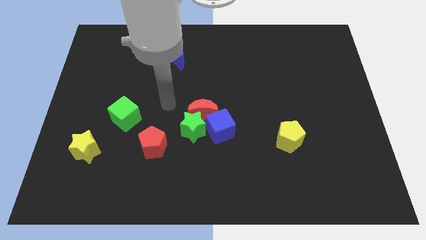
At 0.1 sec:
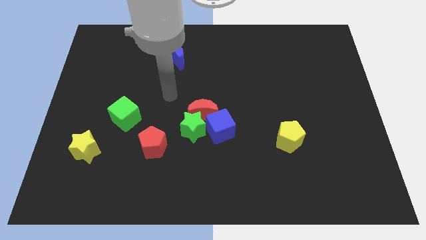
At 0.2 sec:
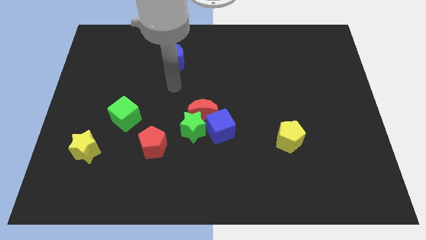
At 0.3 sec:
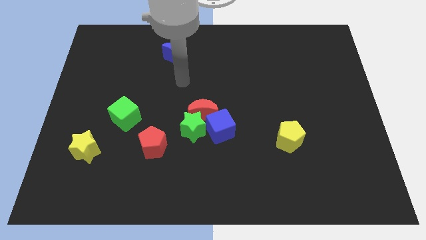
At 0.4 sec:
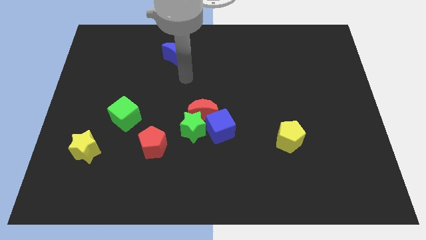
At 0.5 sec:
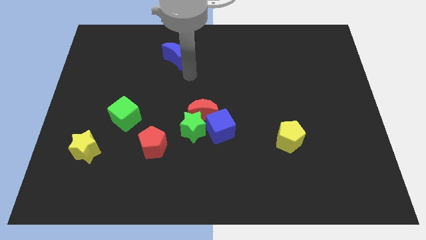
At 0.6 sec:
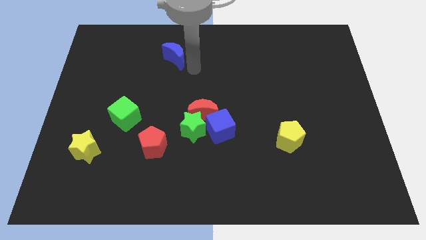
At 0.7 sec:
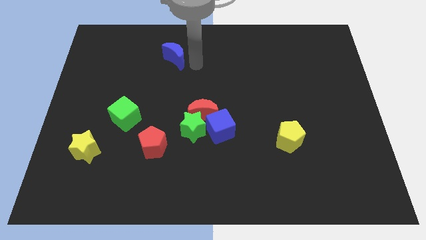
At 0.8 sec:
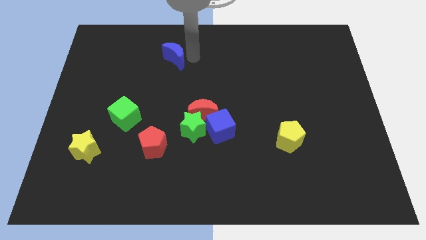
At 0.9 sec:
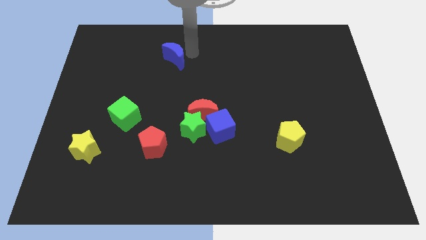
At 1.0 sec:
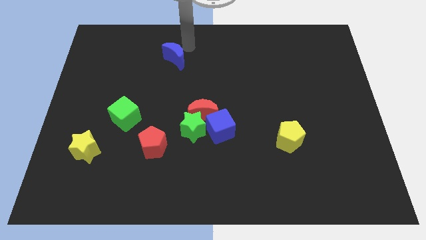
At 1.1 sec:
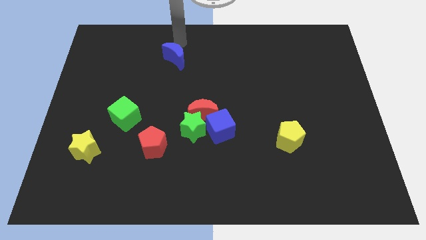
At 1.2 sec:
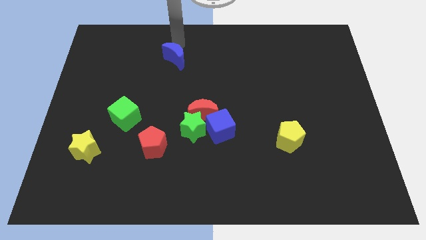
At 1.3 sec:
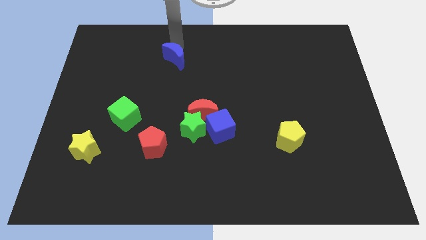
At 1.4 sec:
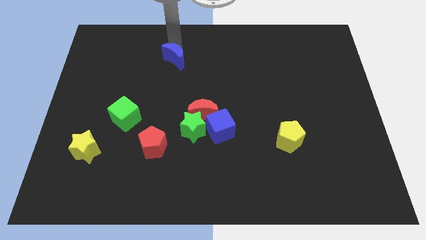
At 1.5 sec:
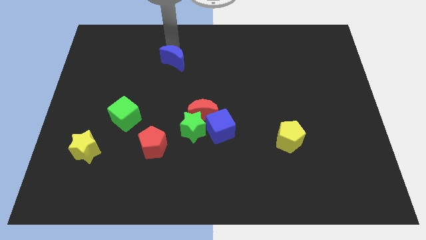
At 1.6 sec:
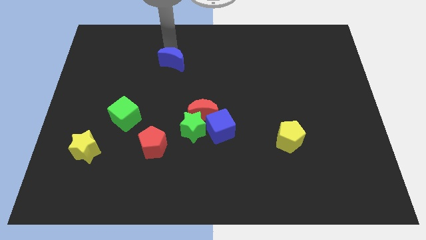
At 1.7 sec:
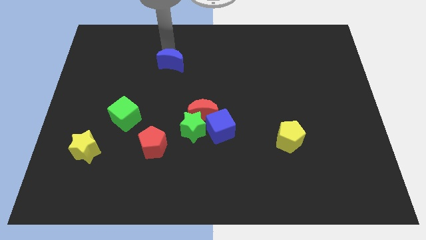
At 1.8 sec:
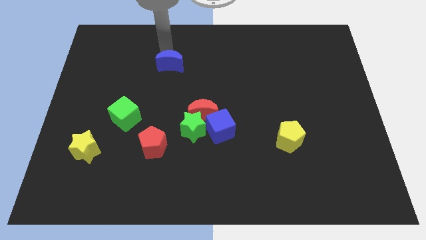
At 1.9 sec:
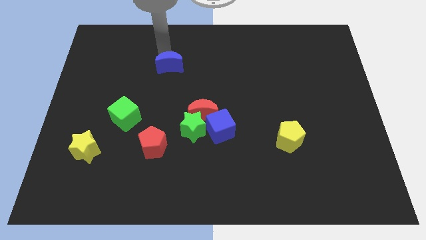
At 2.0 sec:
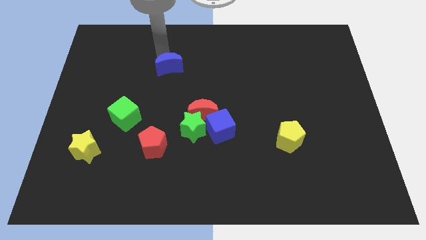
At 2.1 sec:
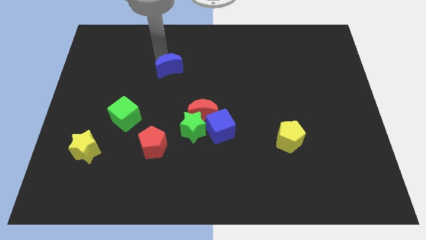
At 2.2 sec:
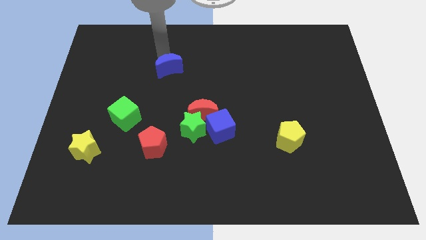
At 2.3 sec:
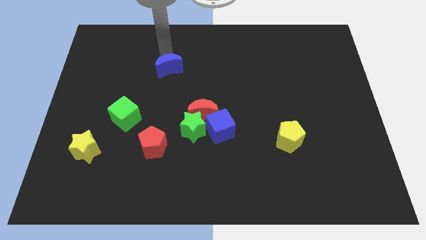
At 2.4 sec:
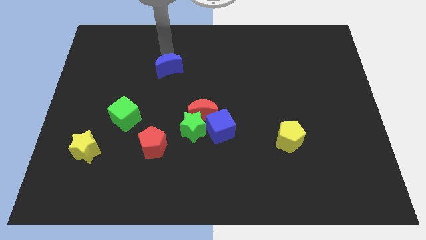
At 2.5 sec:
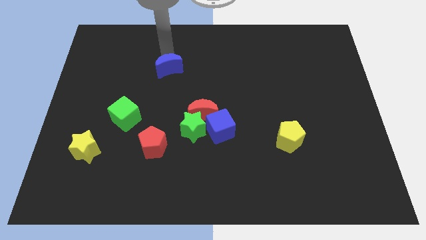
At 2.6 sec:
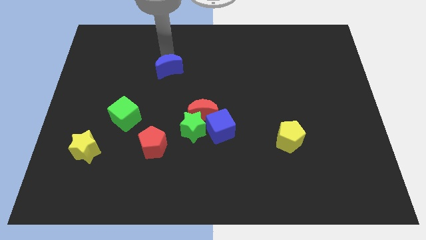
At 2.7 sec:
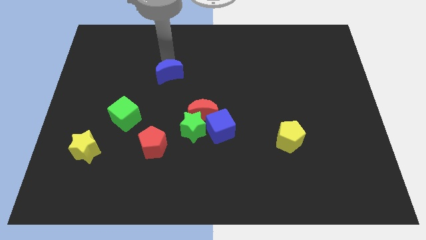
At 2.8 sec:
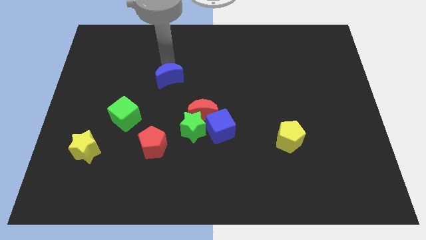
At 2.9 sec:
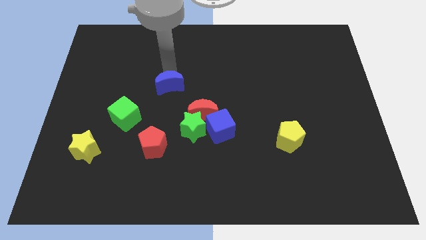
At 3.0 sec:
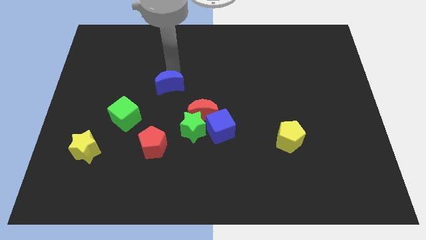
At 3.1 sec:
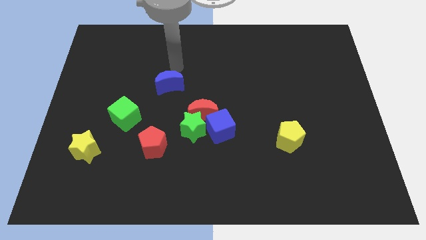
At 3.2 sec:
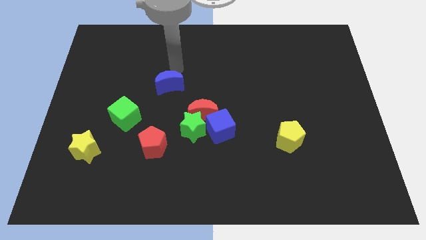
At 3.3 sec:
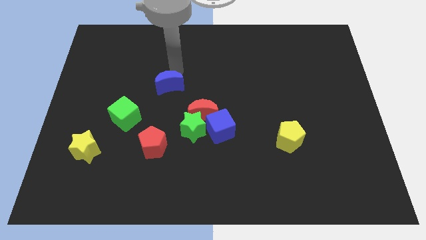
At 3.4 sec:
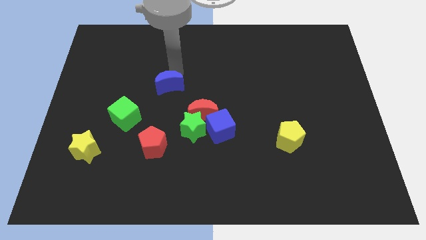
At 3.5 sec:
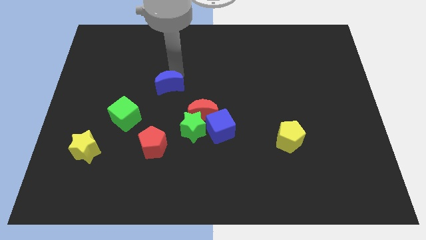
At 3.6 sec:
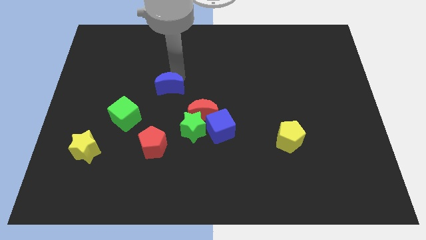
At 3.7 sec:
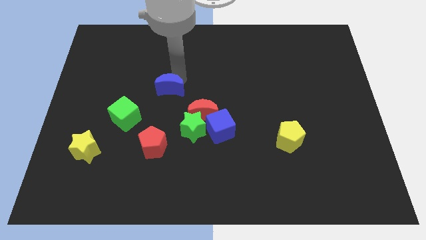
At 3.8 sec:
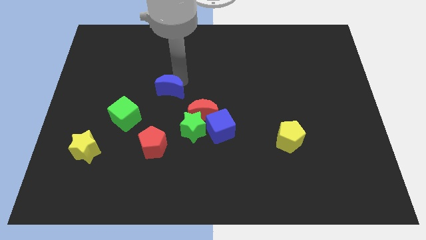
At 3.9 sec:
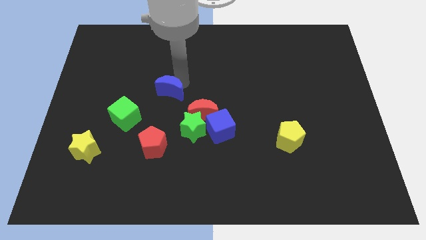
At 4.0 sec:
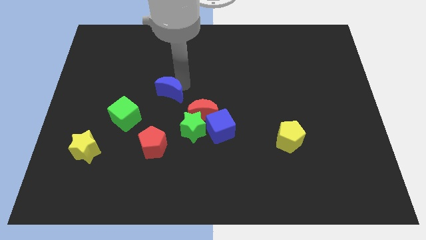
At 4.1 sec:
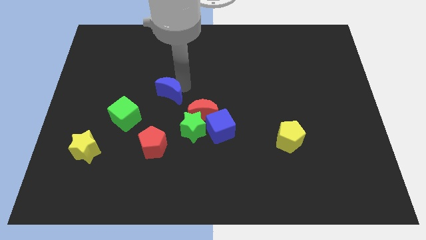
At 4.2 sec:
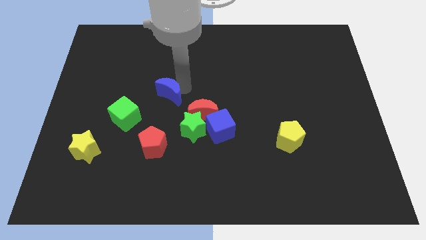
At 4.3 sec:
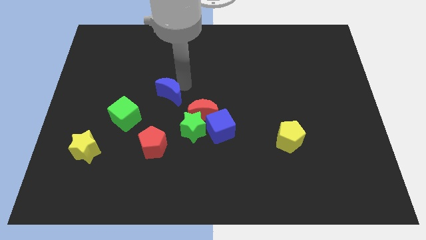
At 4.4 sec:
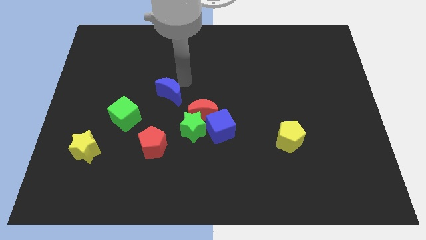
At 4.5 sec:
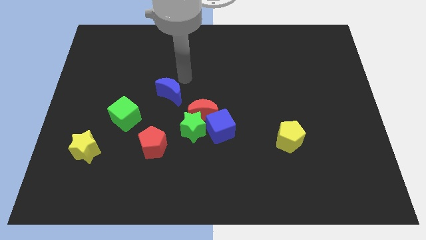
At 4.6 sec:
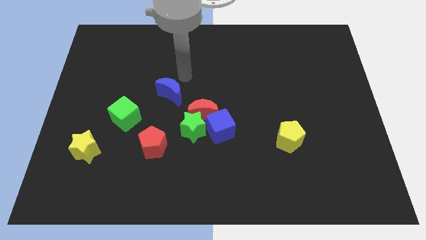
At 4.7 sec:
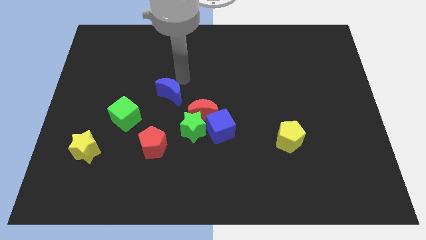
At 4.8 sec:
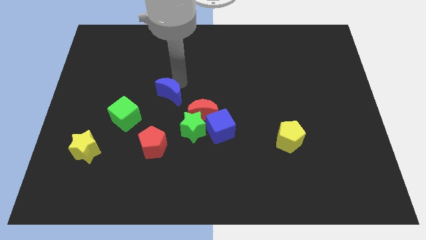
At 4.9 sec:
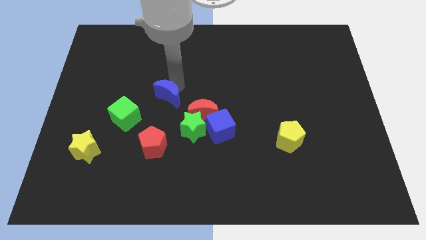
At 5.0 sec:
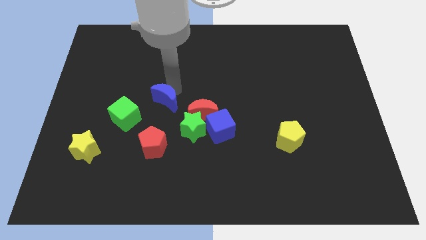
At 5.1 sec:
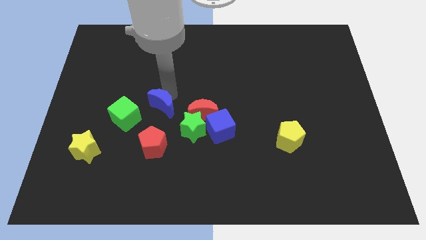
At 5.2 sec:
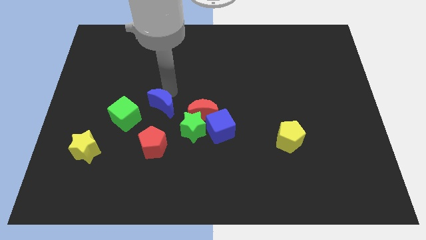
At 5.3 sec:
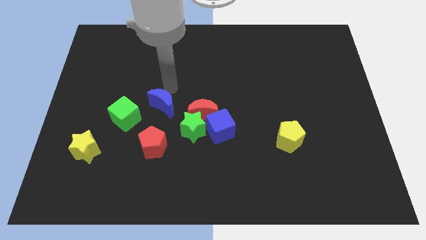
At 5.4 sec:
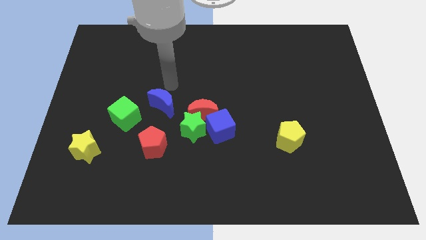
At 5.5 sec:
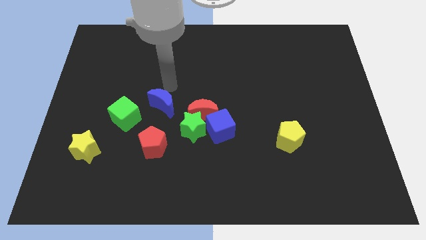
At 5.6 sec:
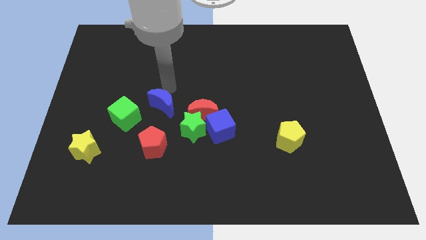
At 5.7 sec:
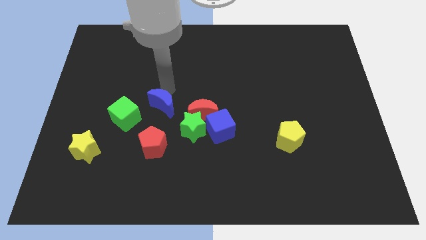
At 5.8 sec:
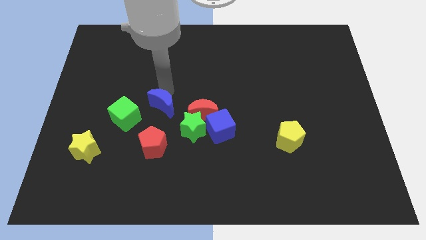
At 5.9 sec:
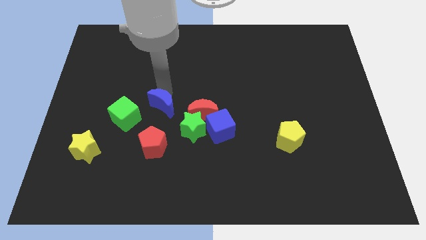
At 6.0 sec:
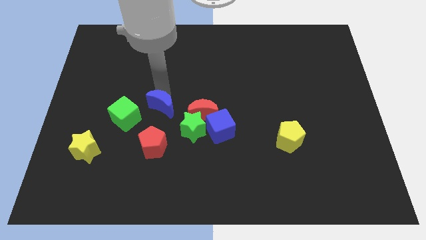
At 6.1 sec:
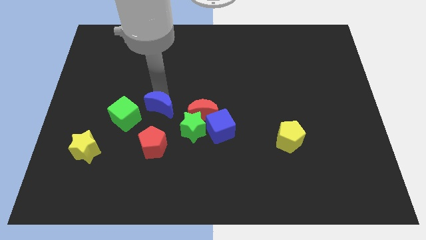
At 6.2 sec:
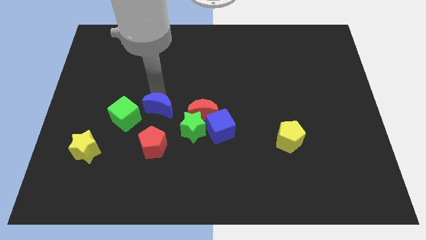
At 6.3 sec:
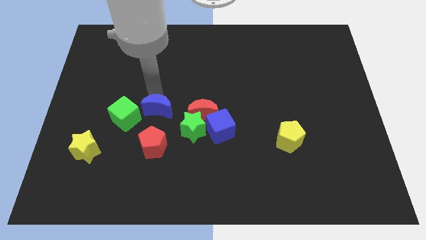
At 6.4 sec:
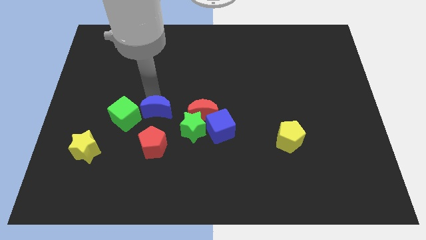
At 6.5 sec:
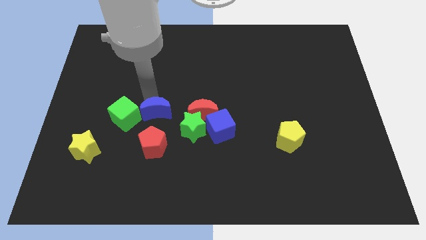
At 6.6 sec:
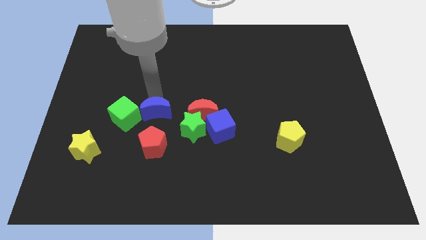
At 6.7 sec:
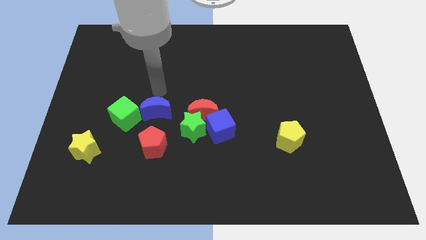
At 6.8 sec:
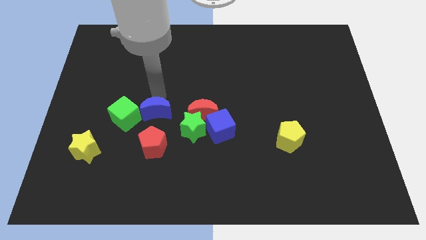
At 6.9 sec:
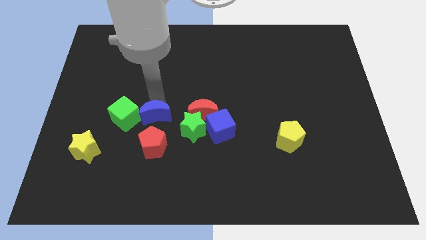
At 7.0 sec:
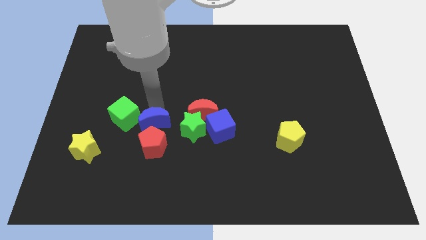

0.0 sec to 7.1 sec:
slide the blue moon next to the red pentagon
